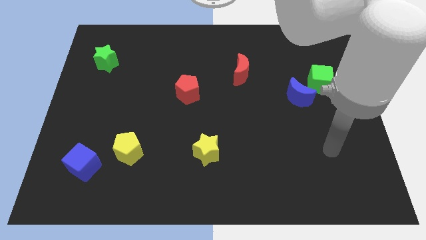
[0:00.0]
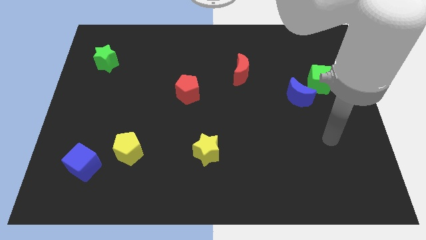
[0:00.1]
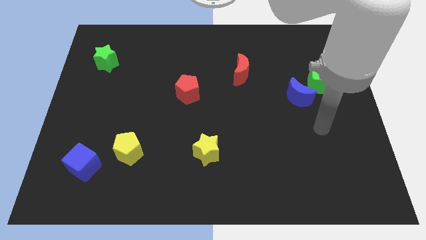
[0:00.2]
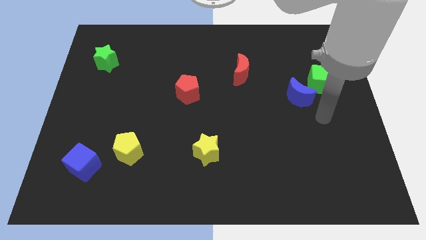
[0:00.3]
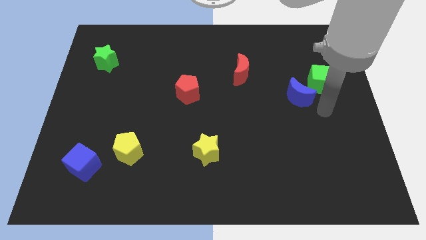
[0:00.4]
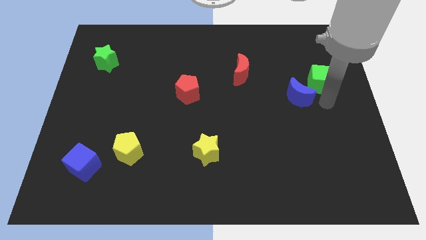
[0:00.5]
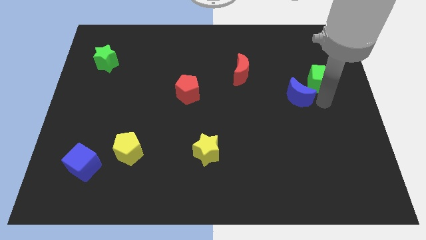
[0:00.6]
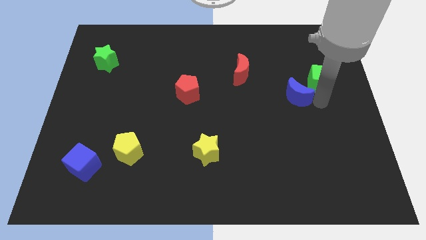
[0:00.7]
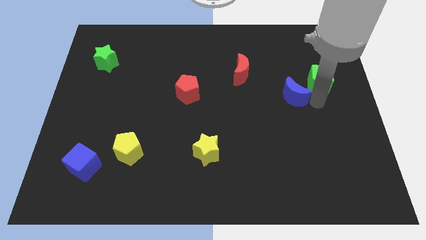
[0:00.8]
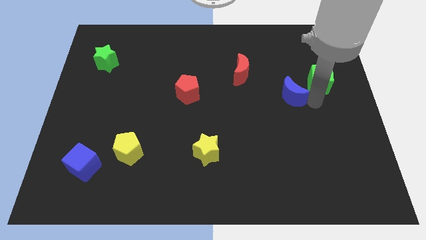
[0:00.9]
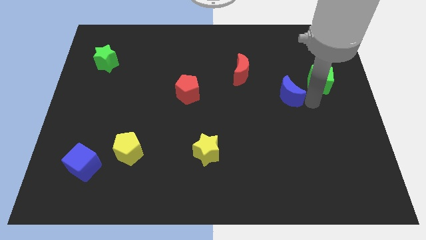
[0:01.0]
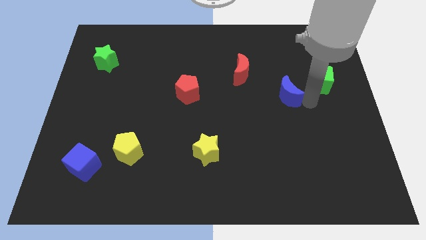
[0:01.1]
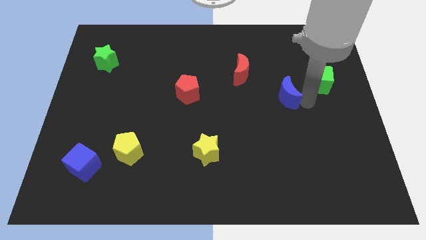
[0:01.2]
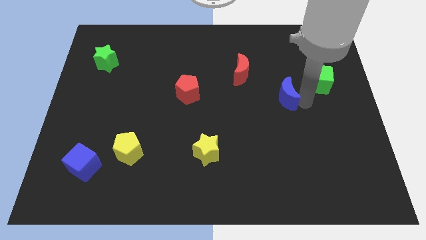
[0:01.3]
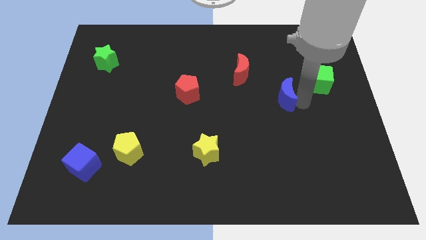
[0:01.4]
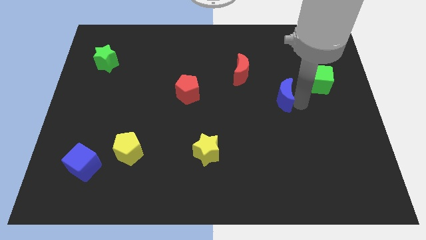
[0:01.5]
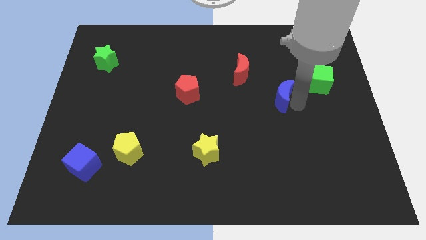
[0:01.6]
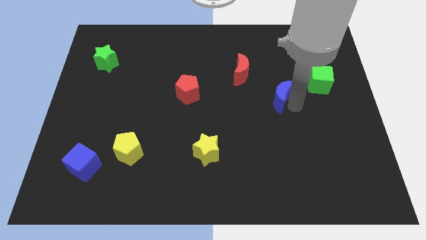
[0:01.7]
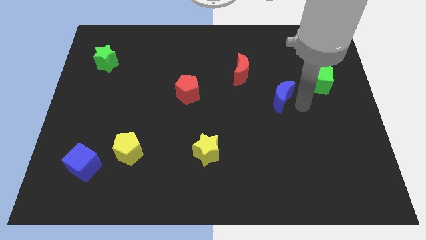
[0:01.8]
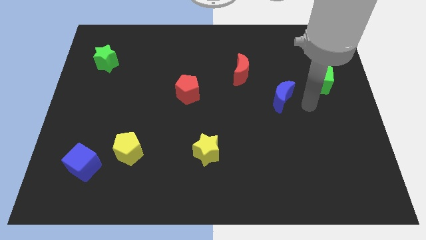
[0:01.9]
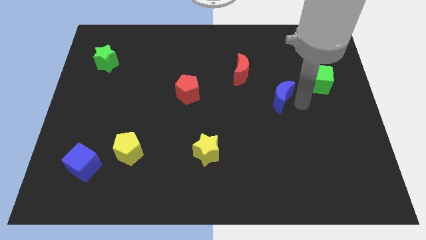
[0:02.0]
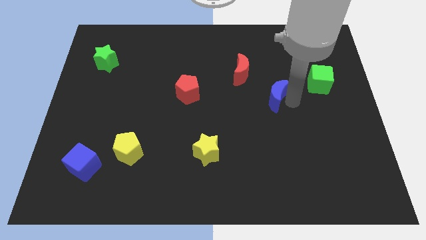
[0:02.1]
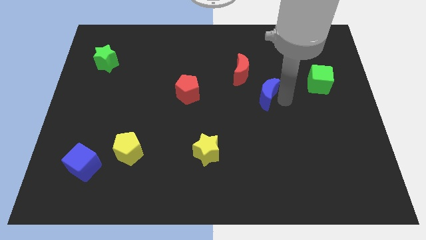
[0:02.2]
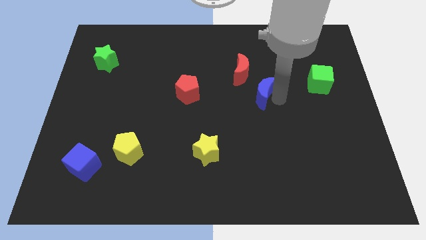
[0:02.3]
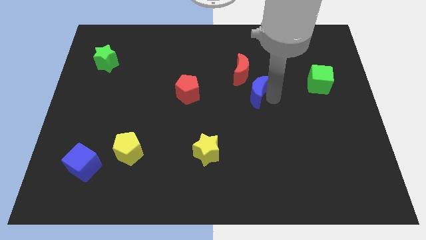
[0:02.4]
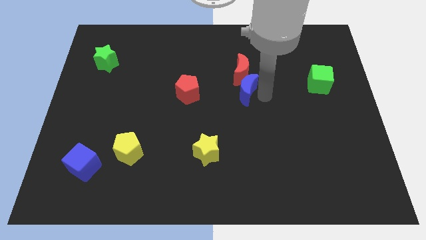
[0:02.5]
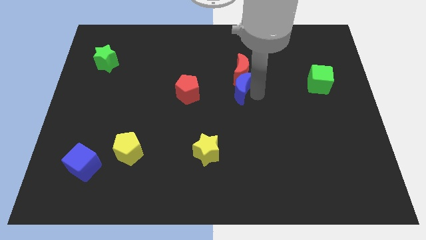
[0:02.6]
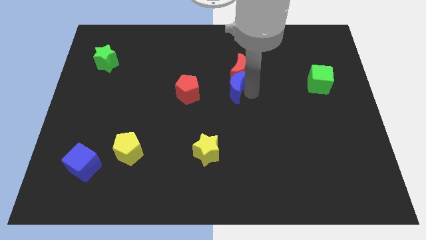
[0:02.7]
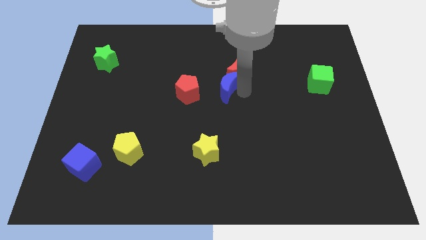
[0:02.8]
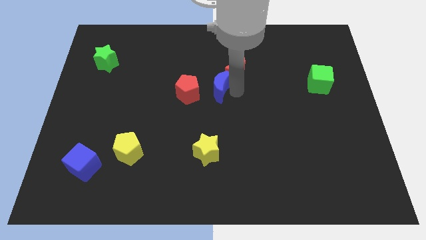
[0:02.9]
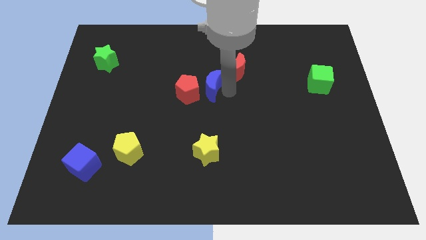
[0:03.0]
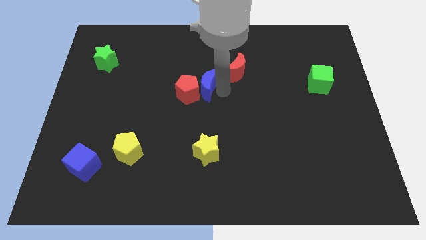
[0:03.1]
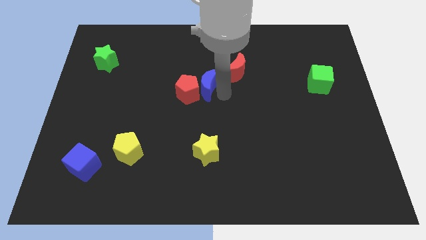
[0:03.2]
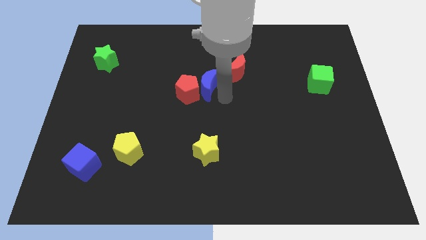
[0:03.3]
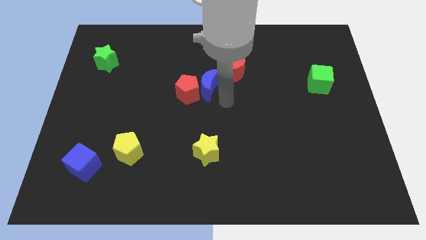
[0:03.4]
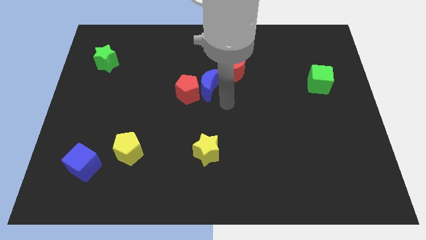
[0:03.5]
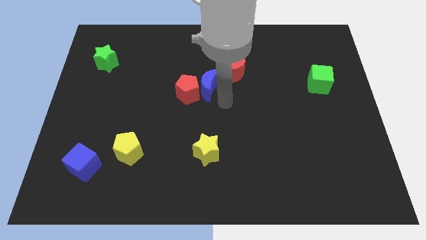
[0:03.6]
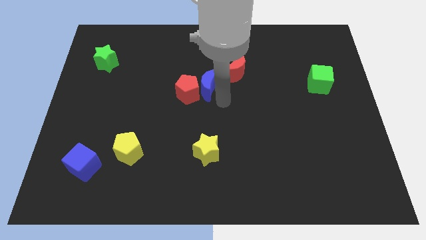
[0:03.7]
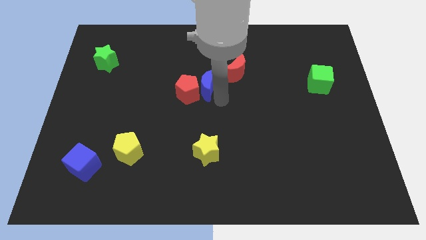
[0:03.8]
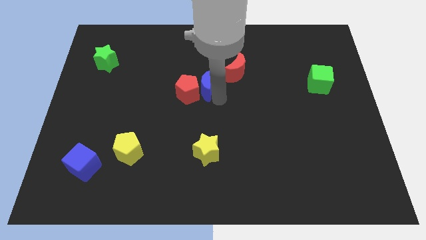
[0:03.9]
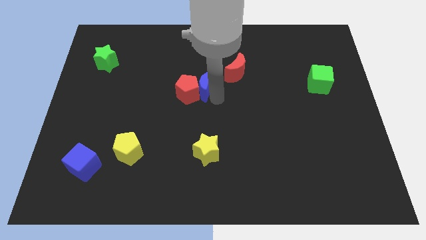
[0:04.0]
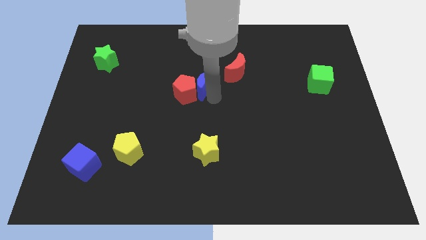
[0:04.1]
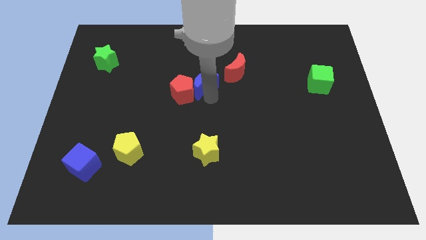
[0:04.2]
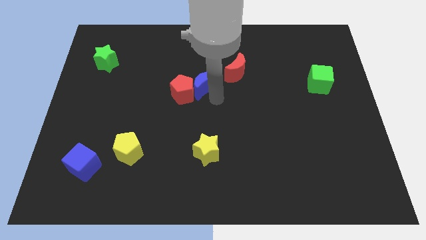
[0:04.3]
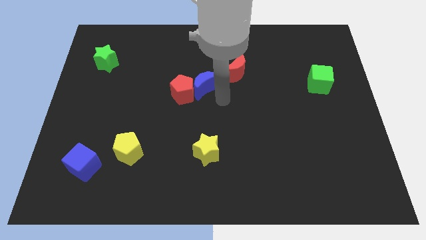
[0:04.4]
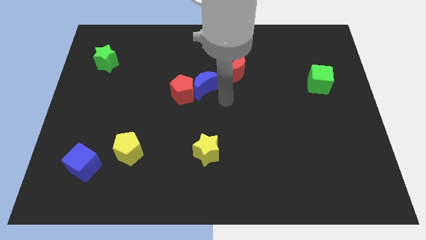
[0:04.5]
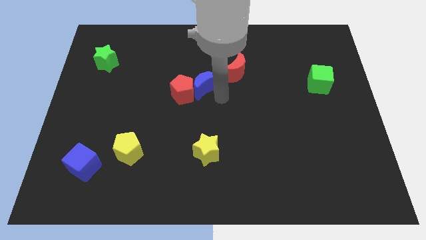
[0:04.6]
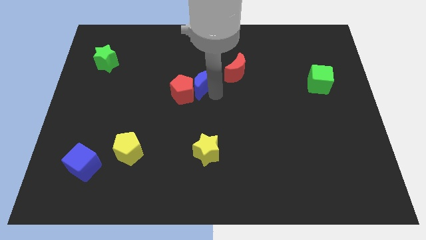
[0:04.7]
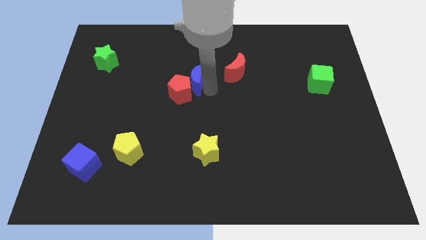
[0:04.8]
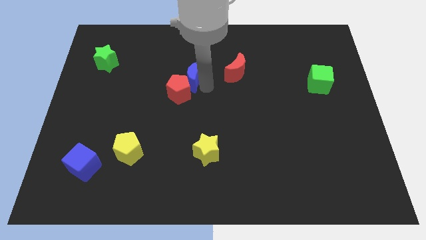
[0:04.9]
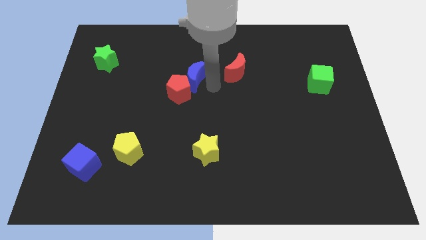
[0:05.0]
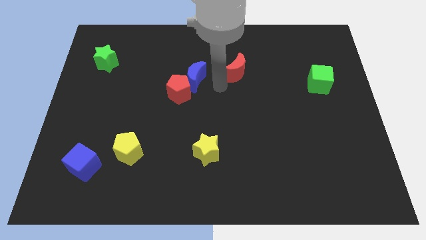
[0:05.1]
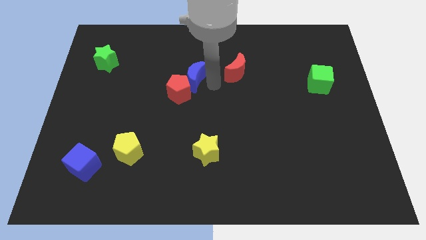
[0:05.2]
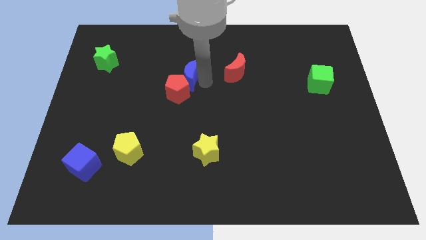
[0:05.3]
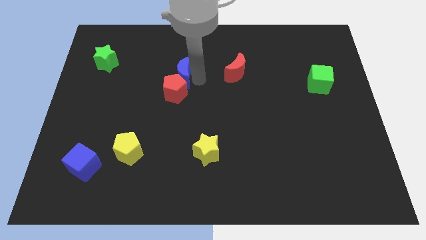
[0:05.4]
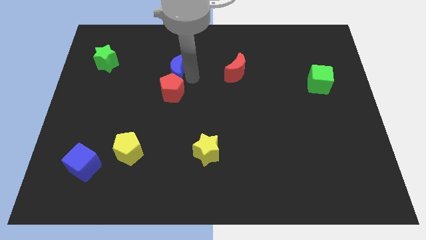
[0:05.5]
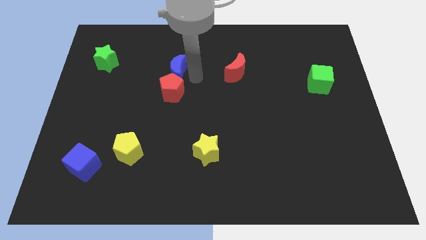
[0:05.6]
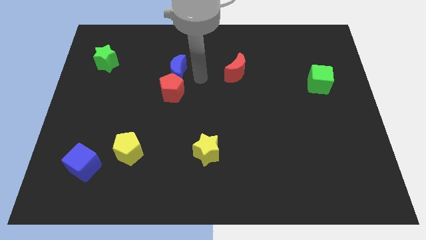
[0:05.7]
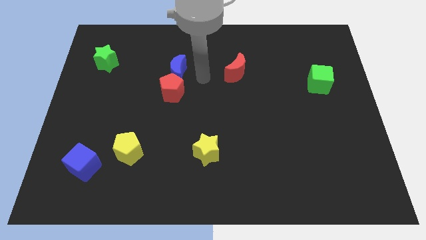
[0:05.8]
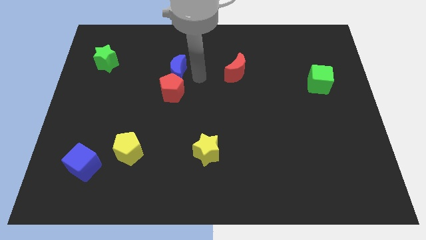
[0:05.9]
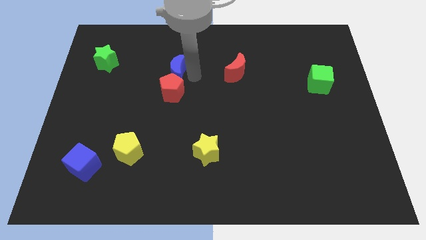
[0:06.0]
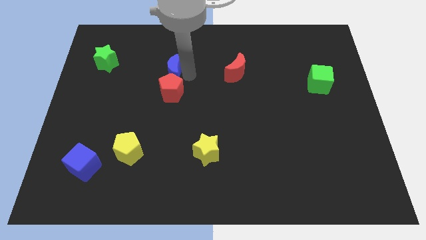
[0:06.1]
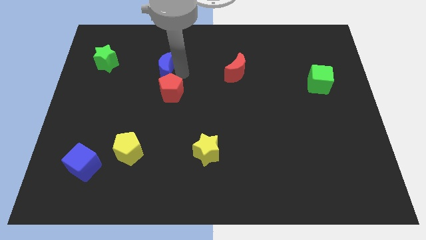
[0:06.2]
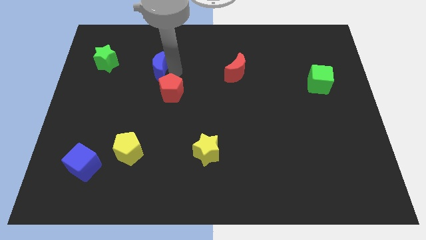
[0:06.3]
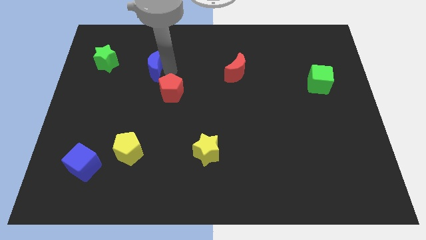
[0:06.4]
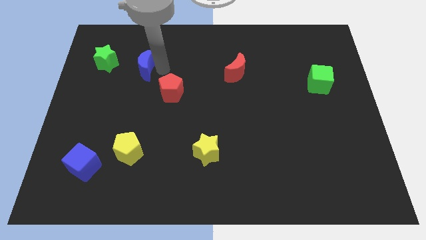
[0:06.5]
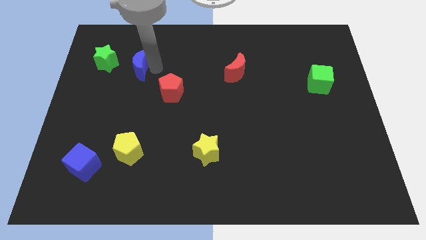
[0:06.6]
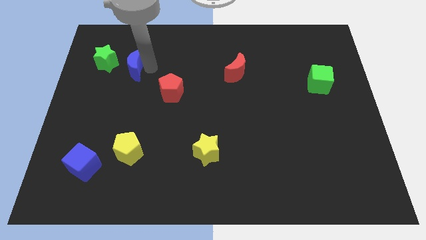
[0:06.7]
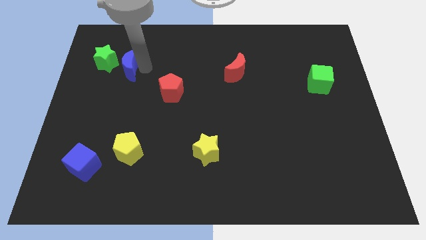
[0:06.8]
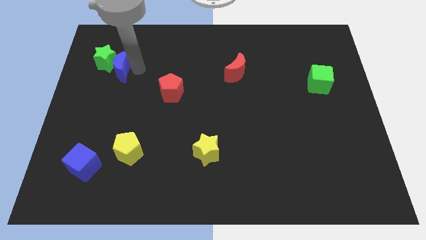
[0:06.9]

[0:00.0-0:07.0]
push the blue moon towards the green star

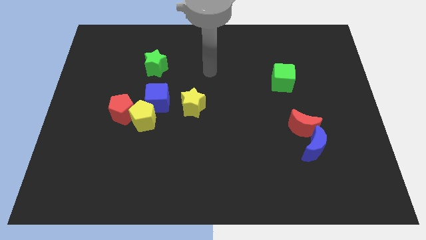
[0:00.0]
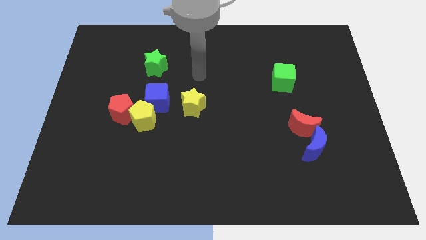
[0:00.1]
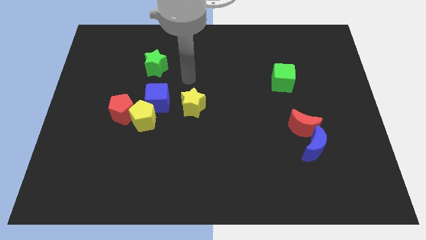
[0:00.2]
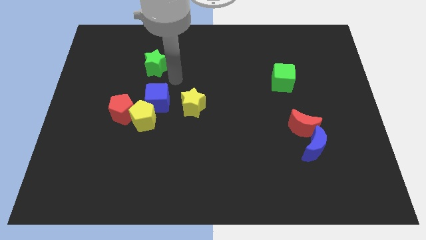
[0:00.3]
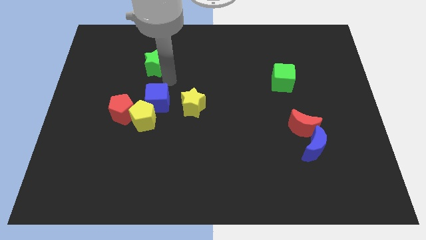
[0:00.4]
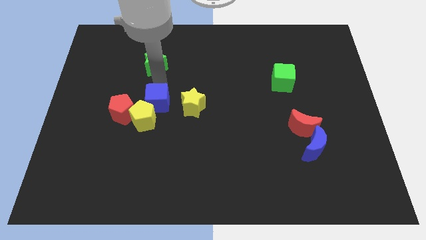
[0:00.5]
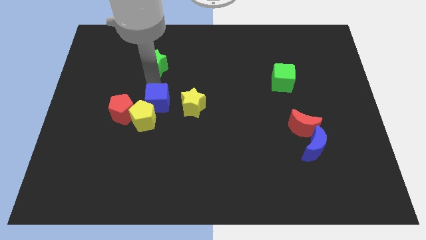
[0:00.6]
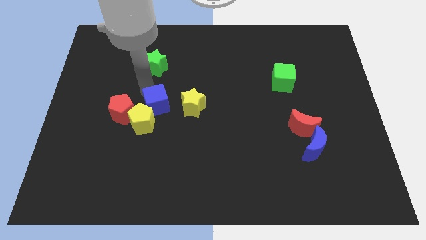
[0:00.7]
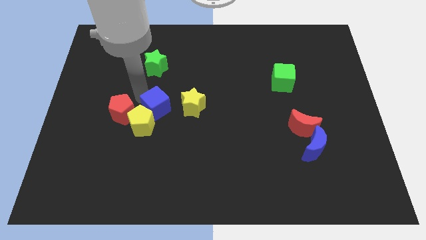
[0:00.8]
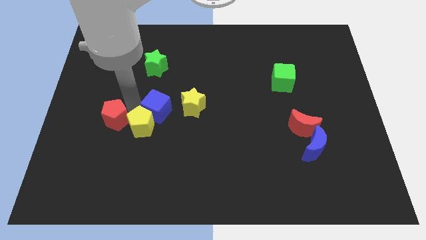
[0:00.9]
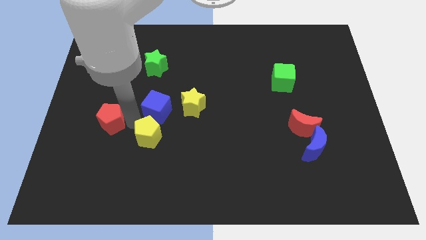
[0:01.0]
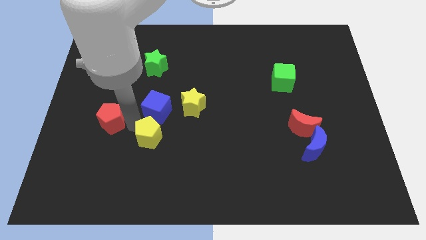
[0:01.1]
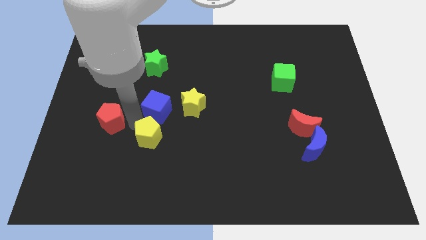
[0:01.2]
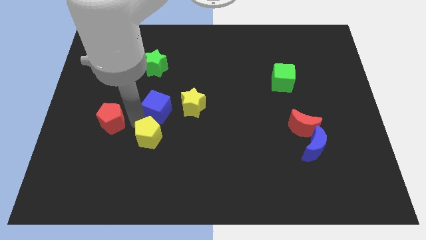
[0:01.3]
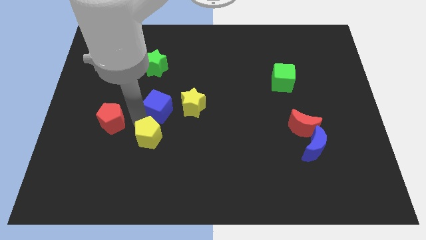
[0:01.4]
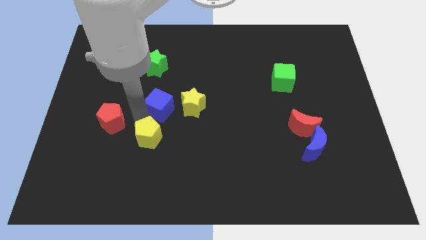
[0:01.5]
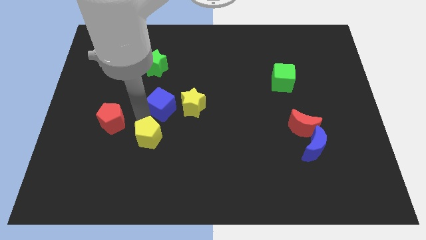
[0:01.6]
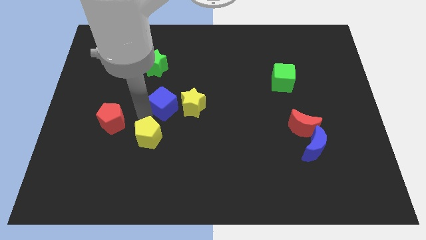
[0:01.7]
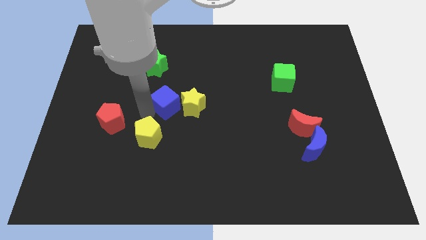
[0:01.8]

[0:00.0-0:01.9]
push the blue cube close to the yellow star
